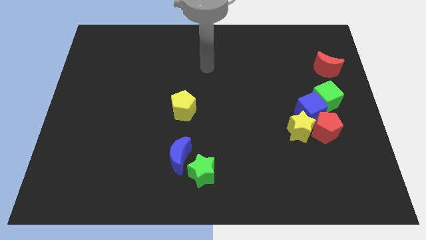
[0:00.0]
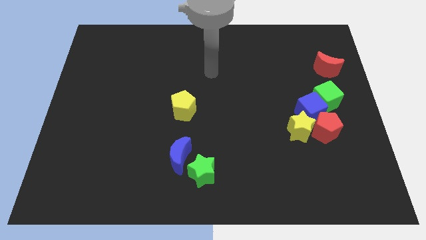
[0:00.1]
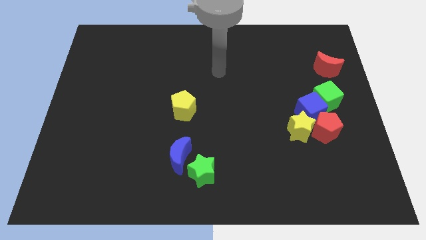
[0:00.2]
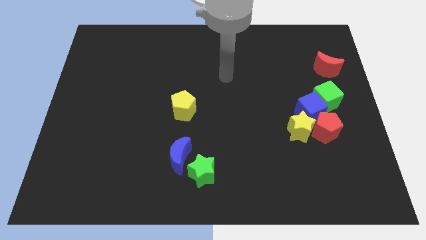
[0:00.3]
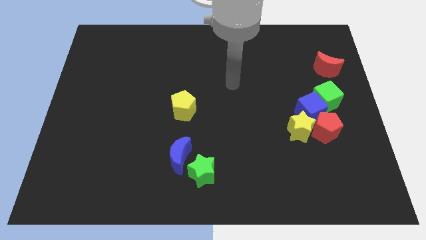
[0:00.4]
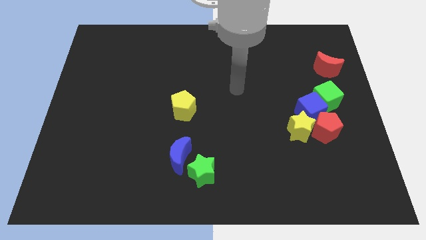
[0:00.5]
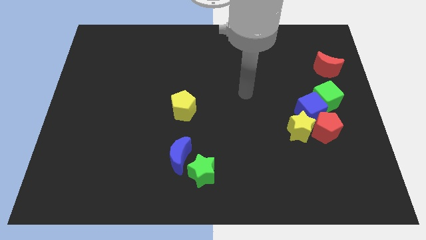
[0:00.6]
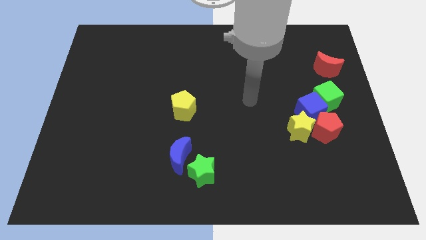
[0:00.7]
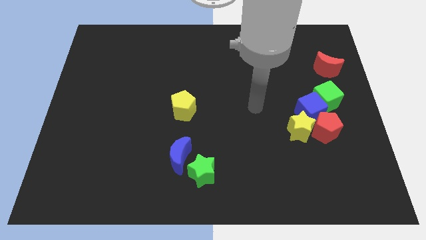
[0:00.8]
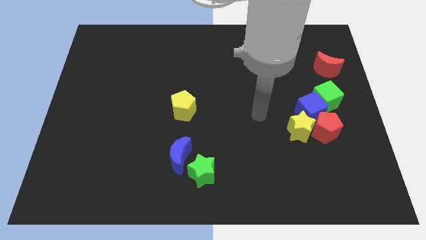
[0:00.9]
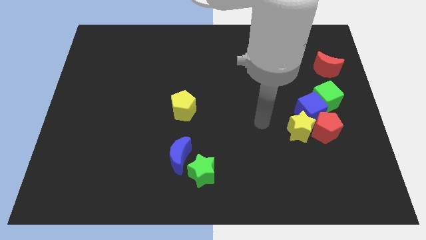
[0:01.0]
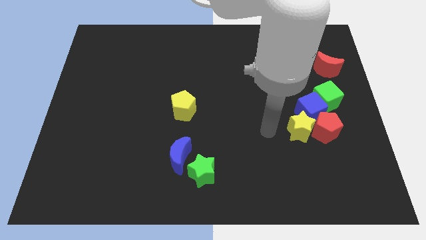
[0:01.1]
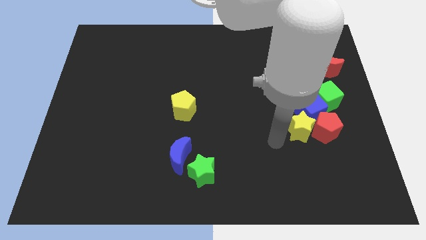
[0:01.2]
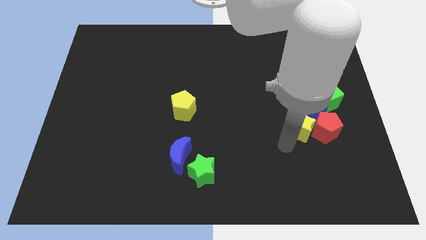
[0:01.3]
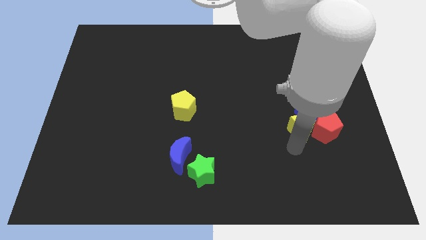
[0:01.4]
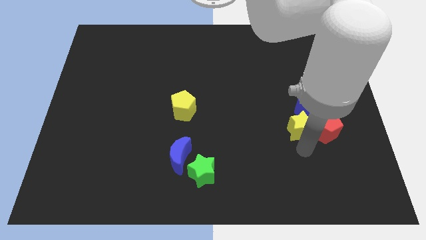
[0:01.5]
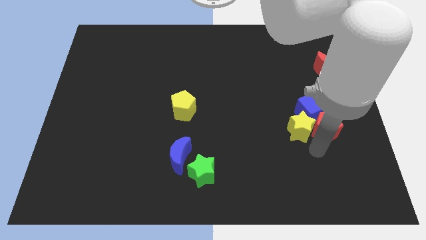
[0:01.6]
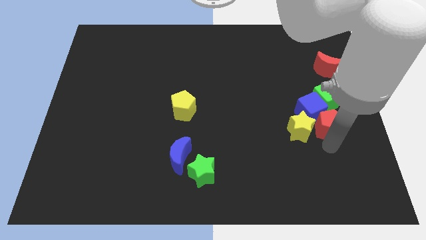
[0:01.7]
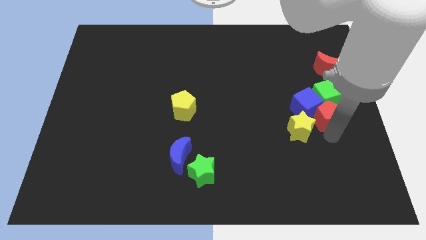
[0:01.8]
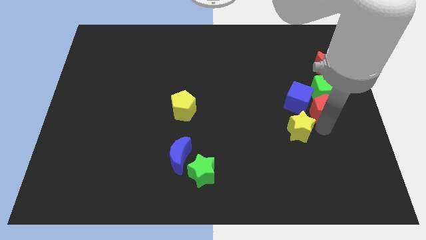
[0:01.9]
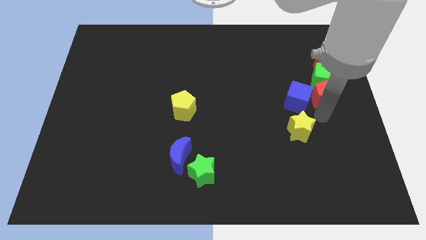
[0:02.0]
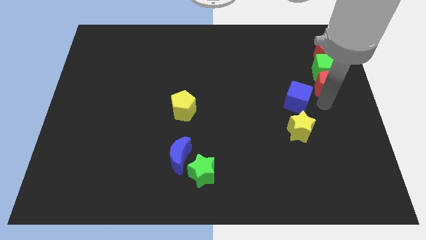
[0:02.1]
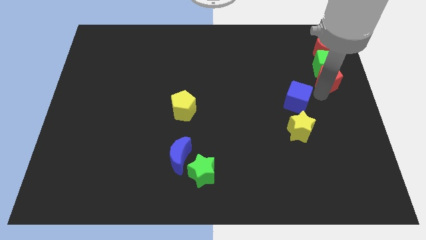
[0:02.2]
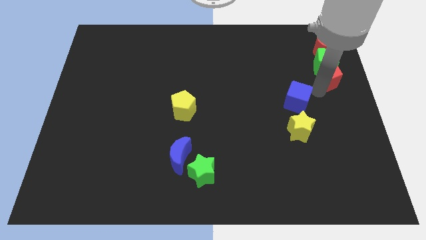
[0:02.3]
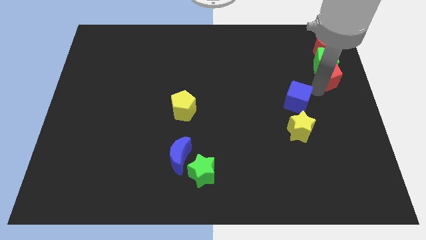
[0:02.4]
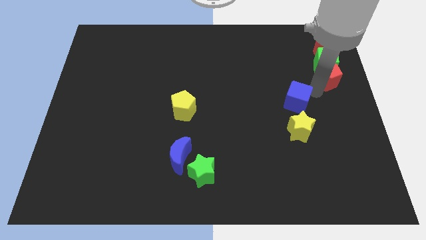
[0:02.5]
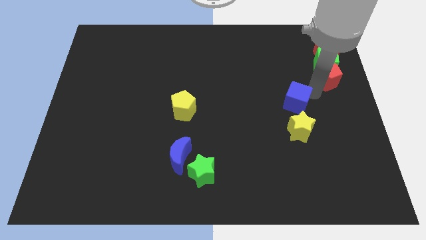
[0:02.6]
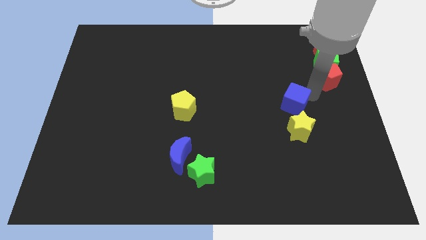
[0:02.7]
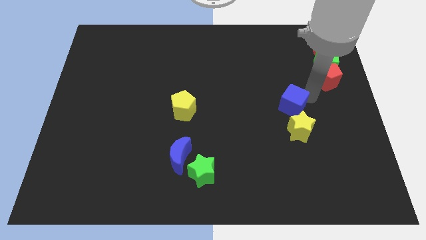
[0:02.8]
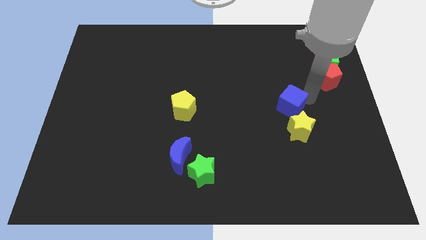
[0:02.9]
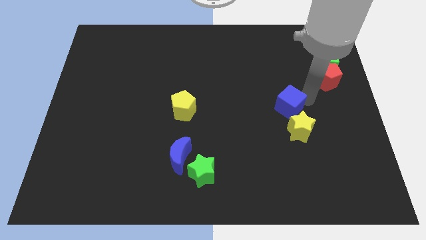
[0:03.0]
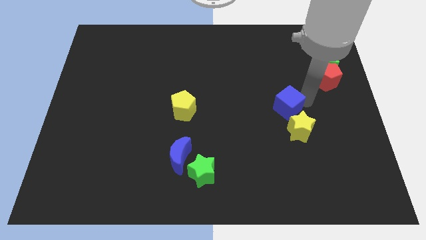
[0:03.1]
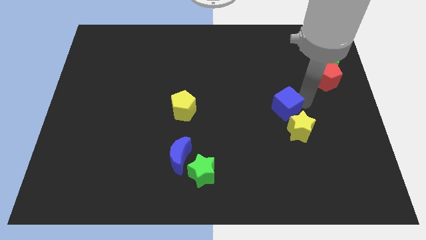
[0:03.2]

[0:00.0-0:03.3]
move the blue cube away from the green cube, red pentagon, and yellow star

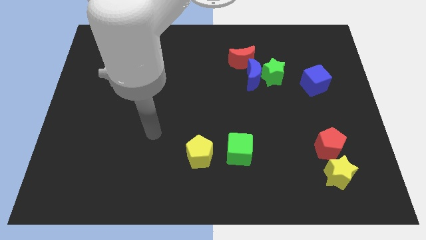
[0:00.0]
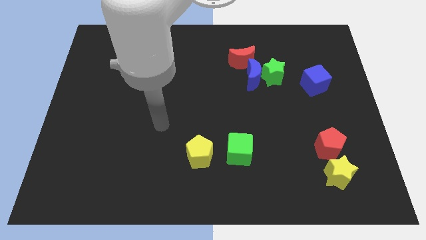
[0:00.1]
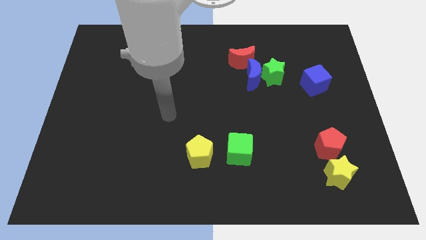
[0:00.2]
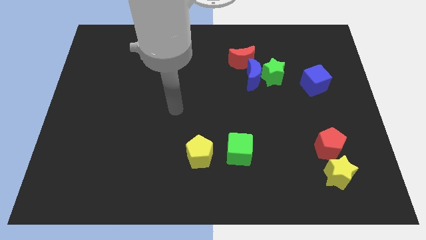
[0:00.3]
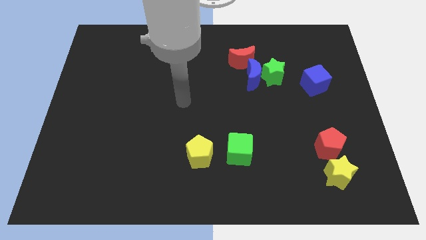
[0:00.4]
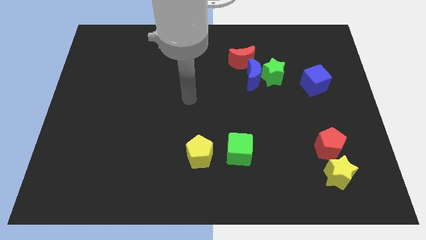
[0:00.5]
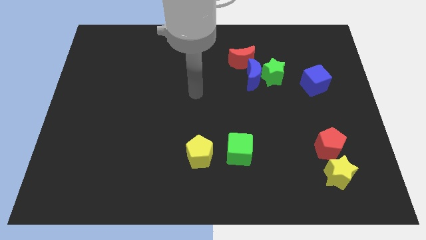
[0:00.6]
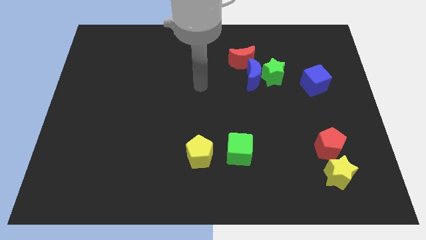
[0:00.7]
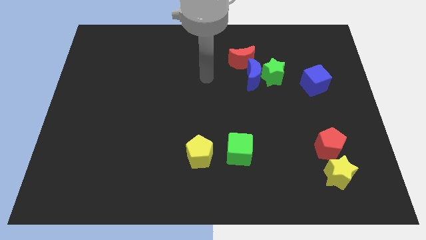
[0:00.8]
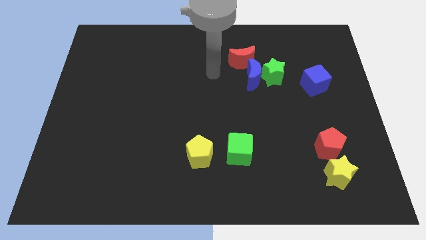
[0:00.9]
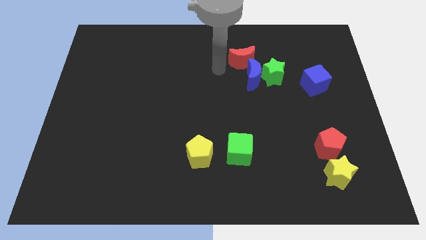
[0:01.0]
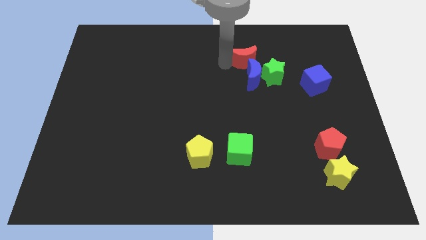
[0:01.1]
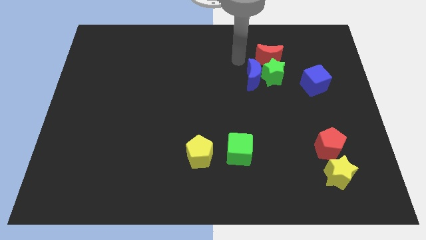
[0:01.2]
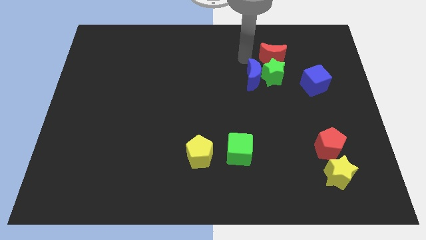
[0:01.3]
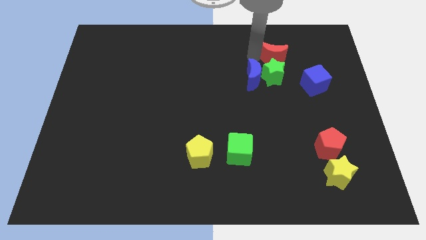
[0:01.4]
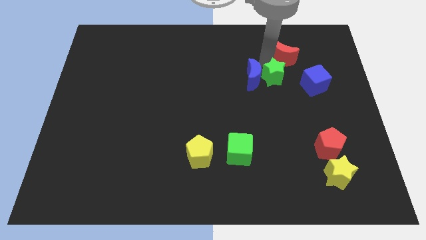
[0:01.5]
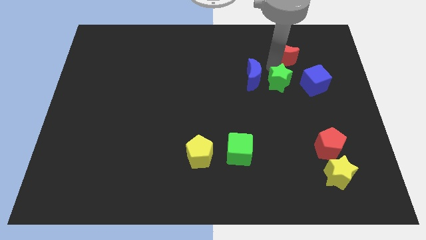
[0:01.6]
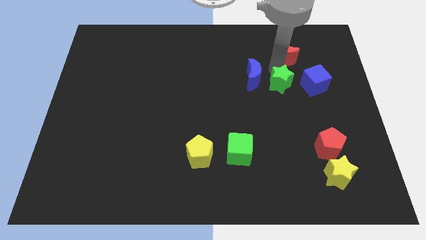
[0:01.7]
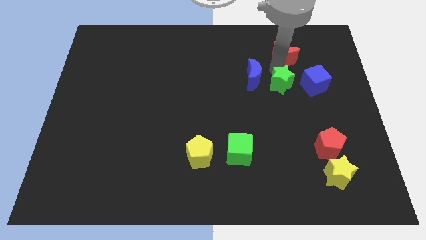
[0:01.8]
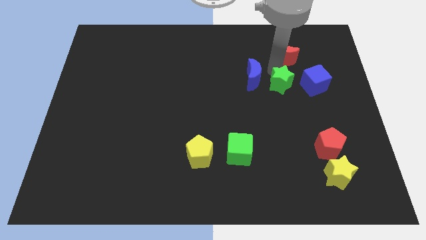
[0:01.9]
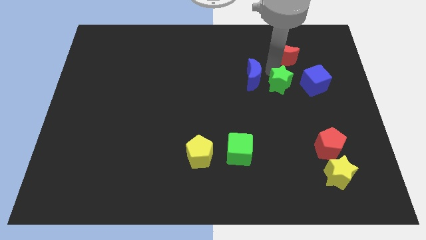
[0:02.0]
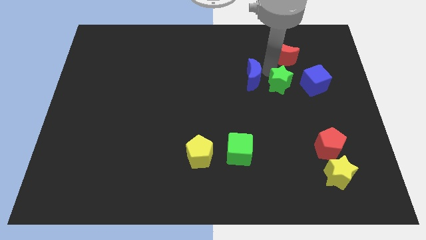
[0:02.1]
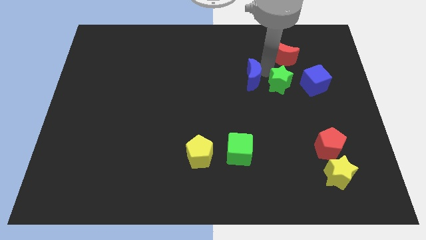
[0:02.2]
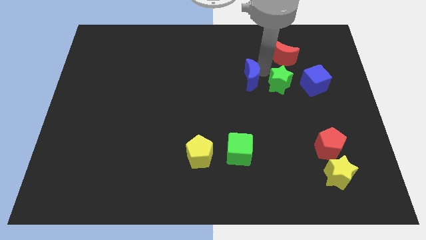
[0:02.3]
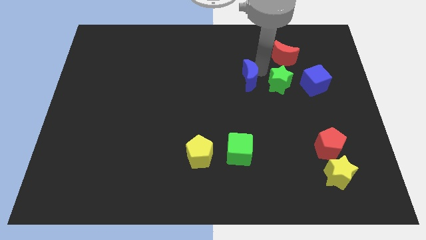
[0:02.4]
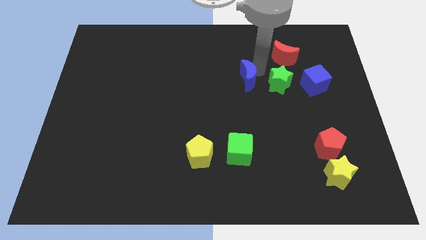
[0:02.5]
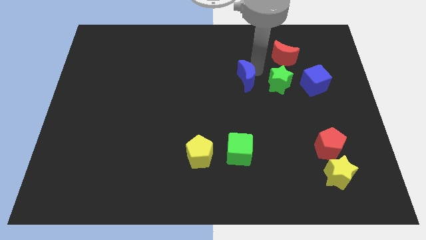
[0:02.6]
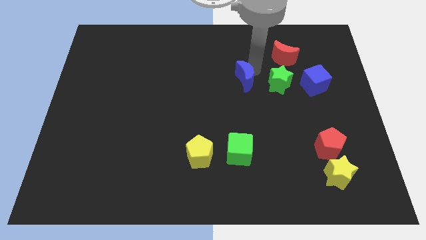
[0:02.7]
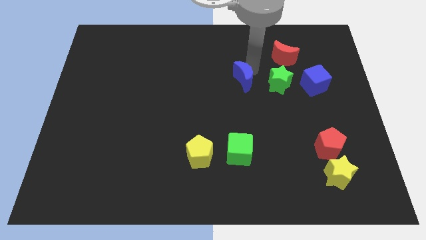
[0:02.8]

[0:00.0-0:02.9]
separate the blue moon from the green star and red moon

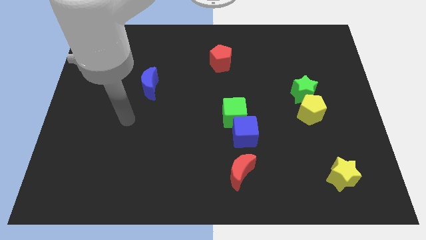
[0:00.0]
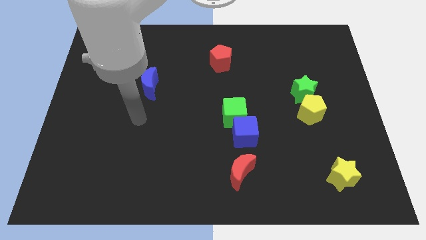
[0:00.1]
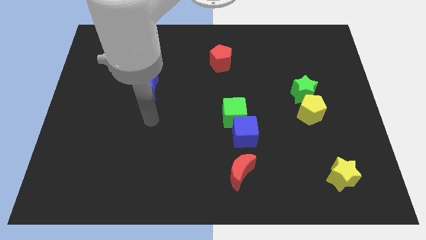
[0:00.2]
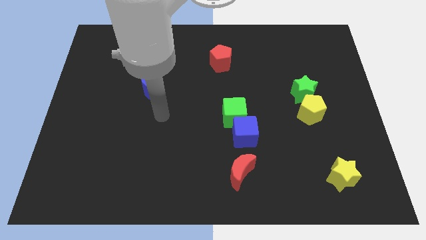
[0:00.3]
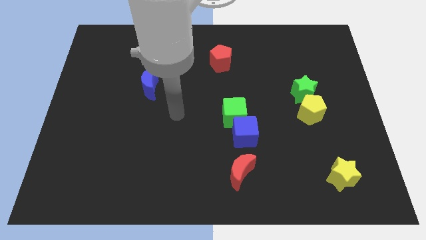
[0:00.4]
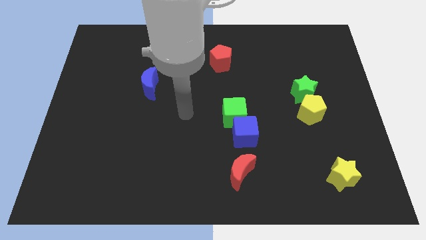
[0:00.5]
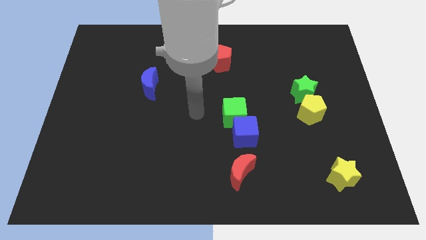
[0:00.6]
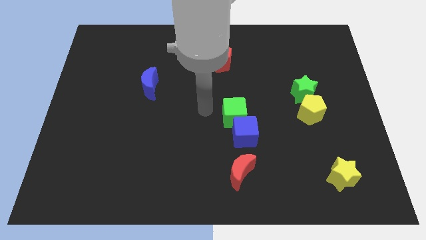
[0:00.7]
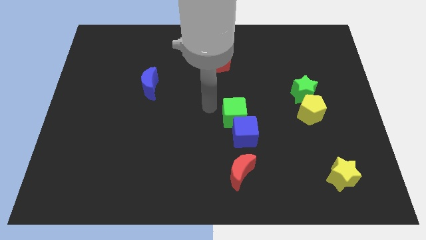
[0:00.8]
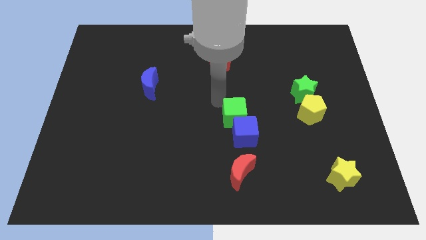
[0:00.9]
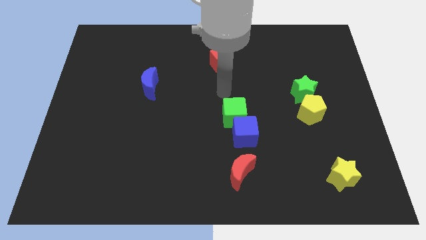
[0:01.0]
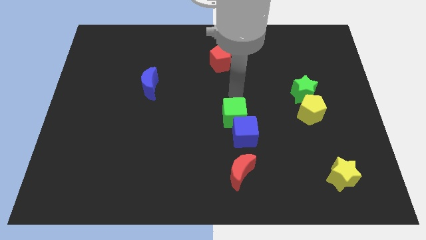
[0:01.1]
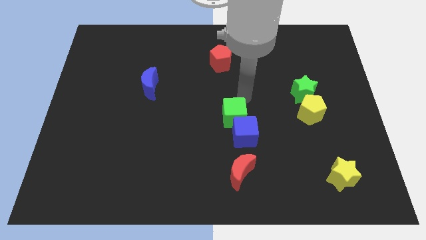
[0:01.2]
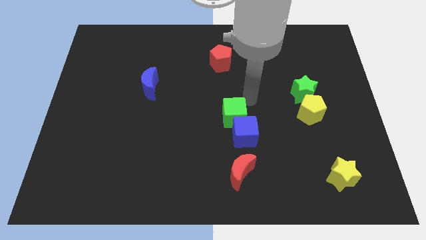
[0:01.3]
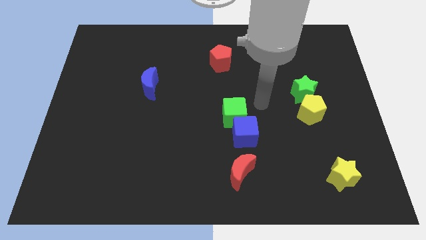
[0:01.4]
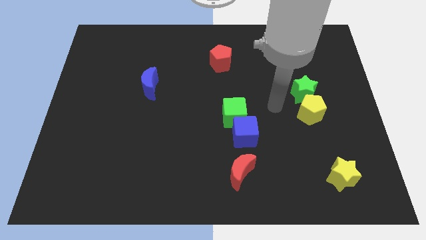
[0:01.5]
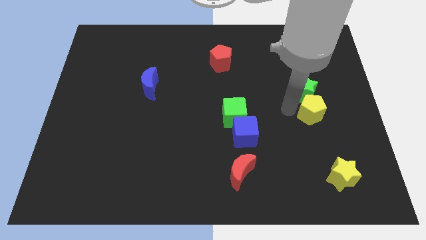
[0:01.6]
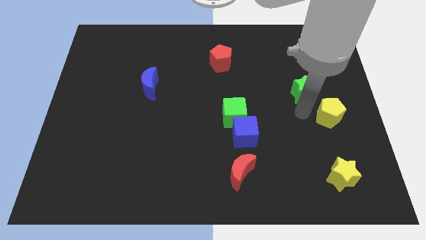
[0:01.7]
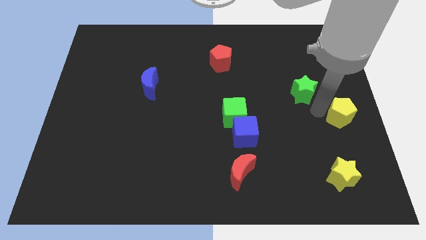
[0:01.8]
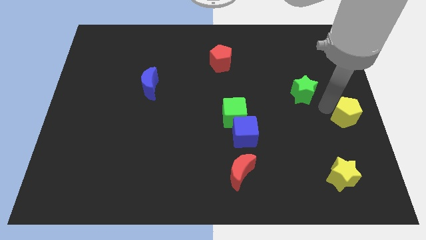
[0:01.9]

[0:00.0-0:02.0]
pull the green star apart from the yellow pentagon

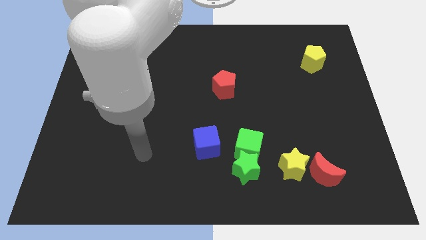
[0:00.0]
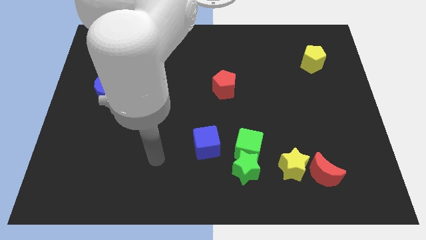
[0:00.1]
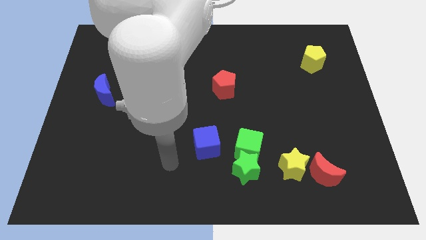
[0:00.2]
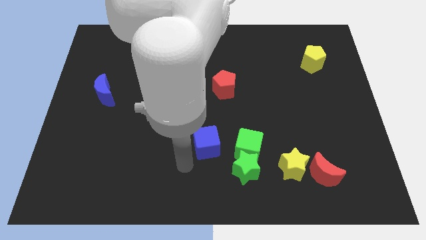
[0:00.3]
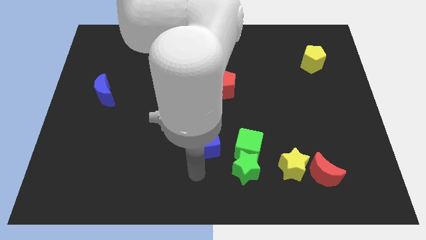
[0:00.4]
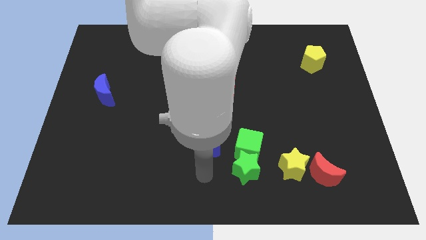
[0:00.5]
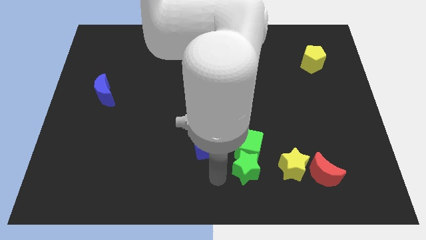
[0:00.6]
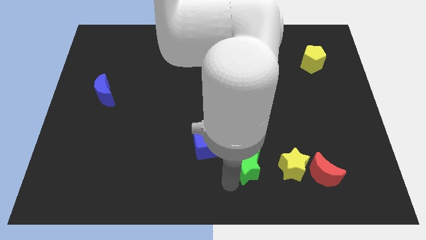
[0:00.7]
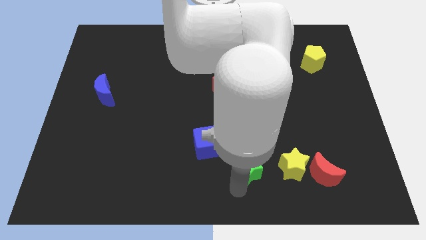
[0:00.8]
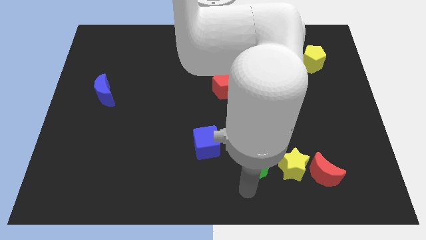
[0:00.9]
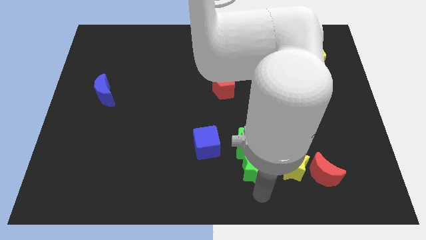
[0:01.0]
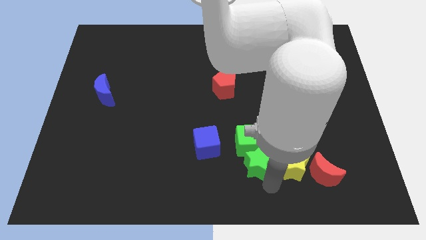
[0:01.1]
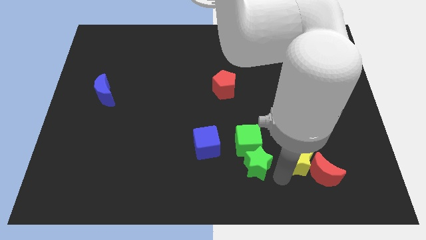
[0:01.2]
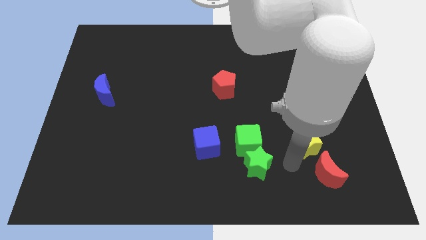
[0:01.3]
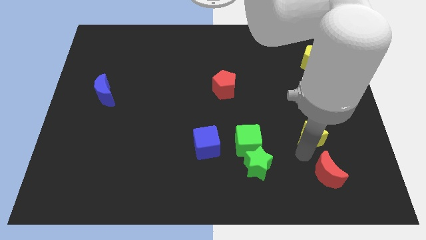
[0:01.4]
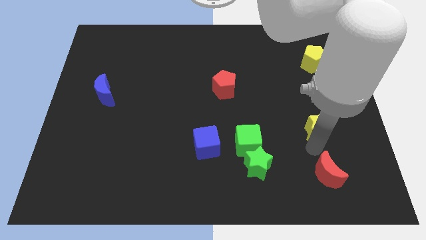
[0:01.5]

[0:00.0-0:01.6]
move the red moon away from the yellow star
